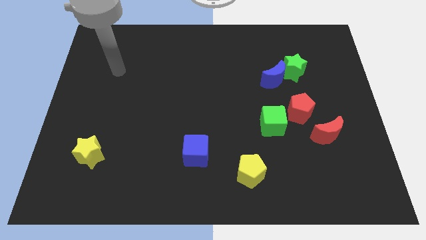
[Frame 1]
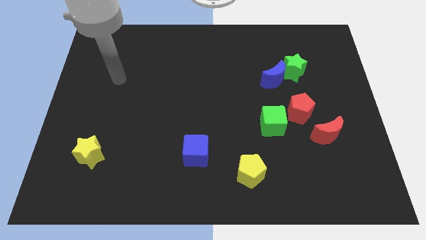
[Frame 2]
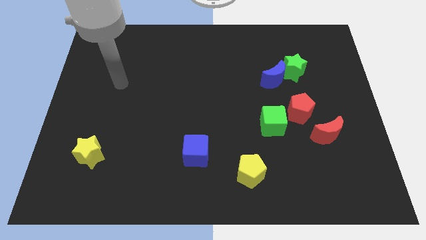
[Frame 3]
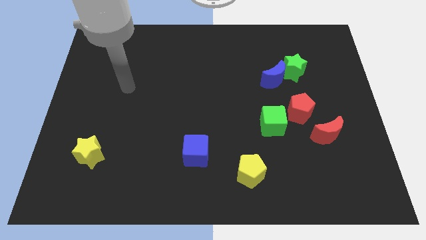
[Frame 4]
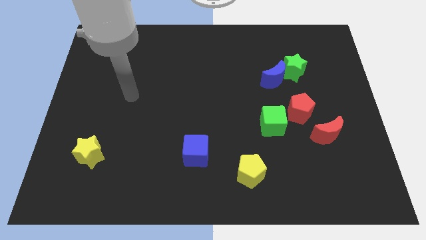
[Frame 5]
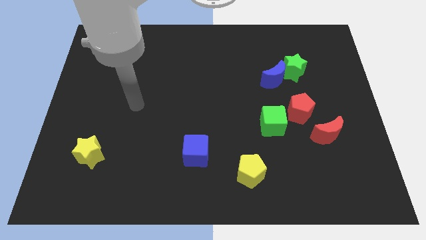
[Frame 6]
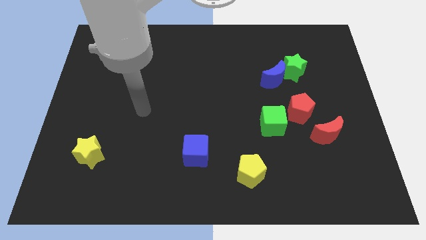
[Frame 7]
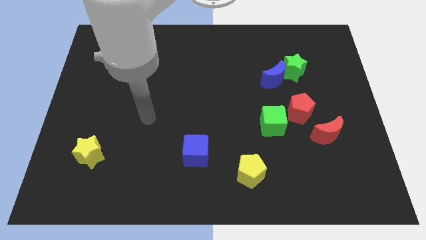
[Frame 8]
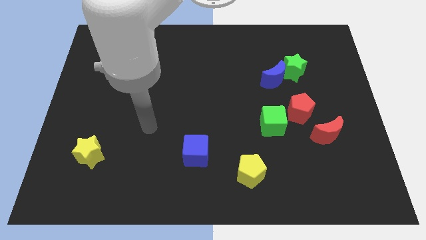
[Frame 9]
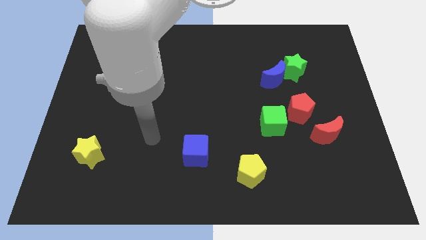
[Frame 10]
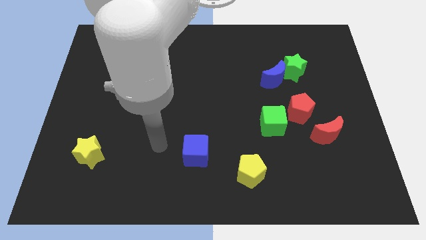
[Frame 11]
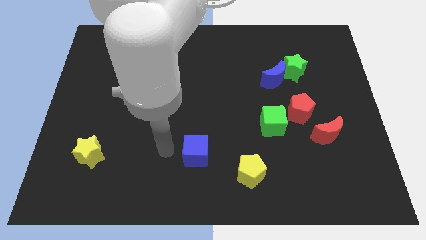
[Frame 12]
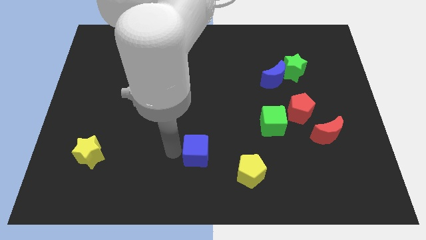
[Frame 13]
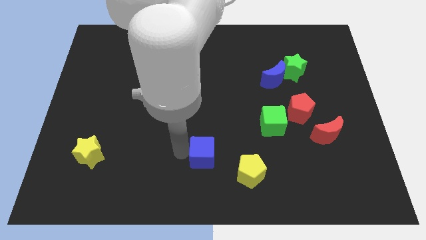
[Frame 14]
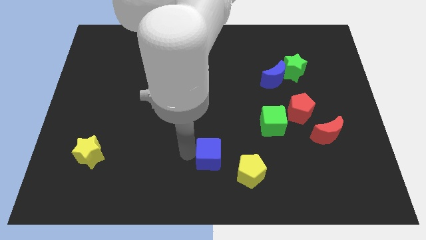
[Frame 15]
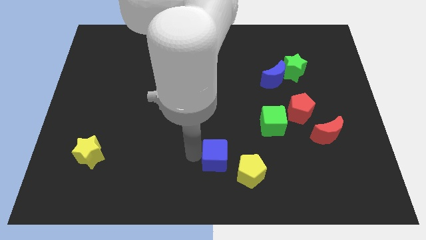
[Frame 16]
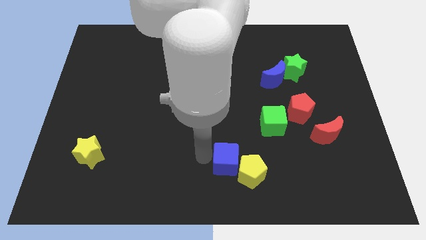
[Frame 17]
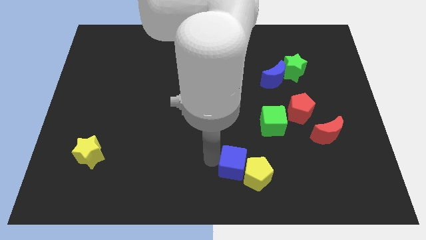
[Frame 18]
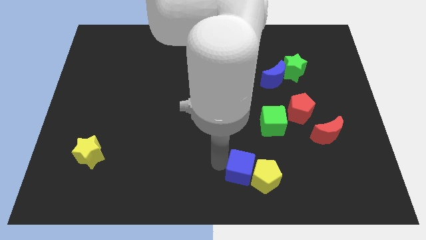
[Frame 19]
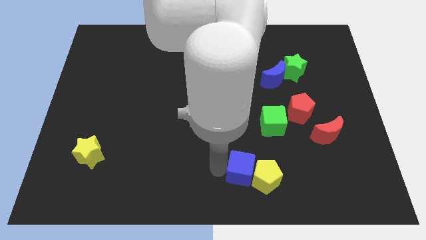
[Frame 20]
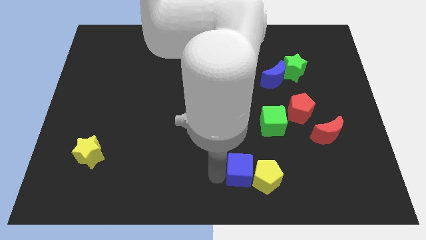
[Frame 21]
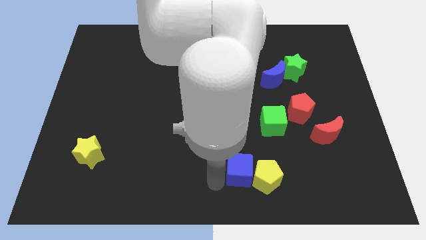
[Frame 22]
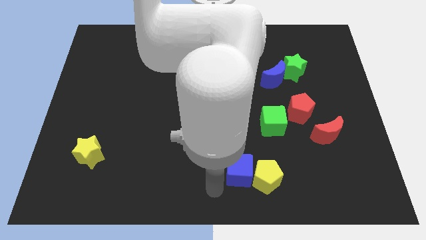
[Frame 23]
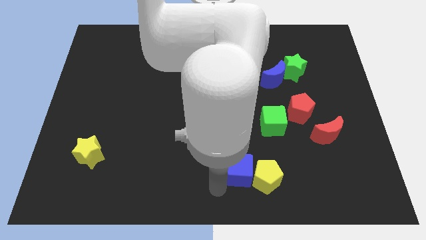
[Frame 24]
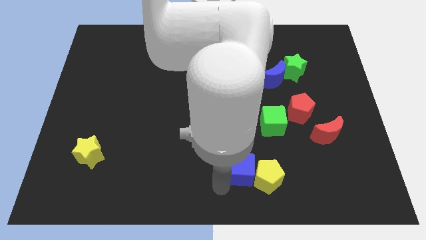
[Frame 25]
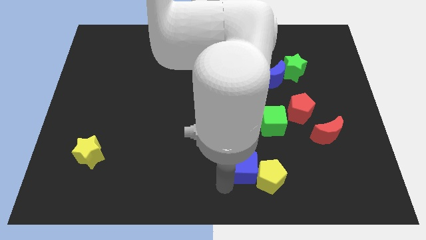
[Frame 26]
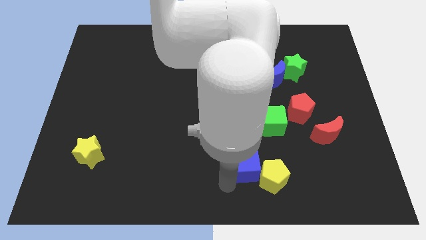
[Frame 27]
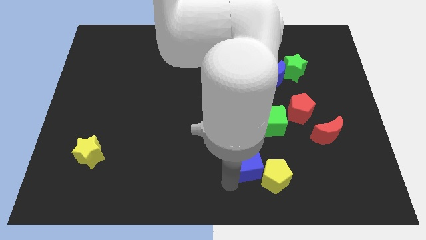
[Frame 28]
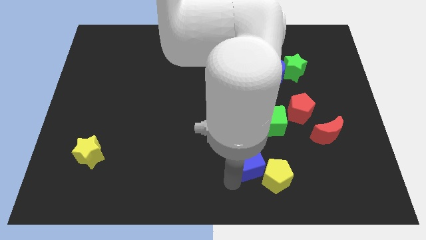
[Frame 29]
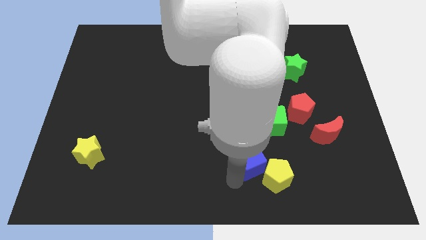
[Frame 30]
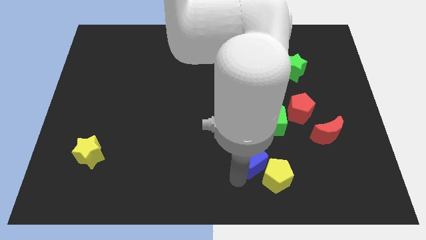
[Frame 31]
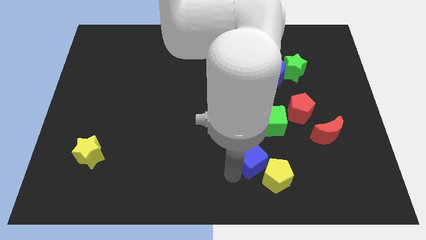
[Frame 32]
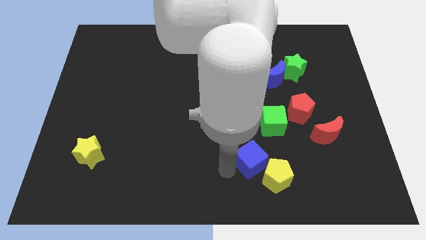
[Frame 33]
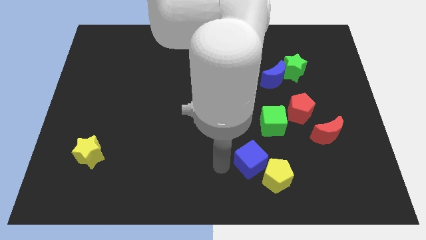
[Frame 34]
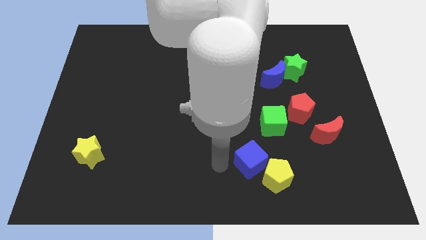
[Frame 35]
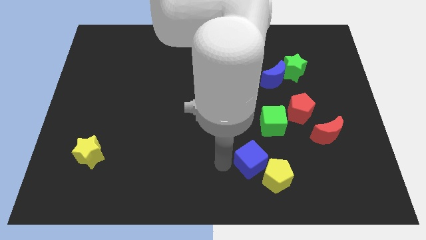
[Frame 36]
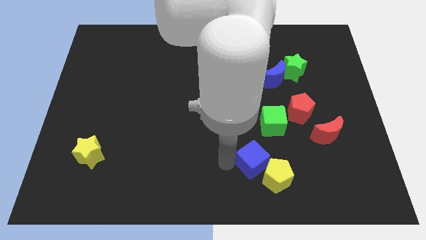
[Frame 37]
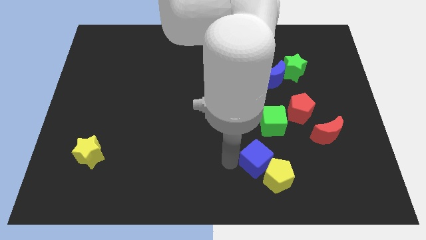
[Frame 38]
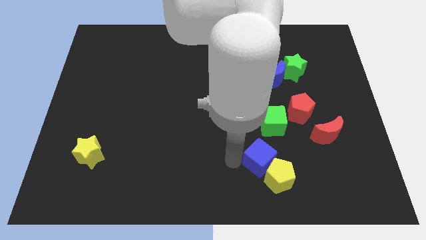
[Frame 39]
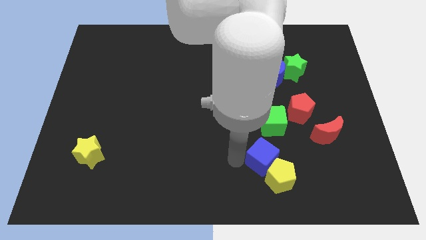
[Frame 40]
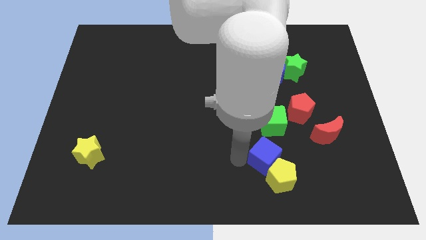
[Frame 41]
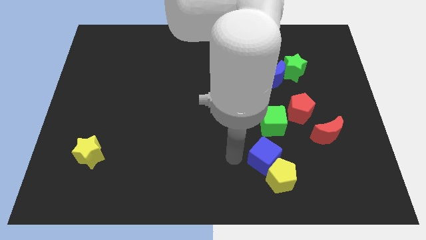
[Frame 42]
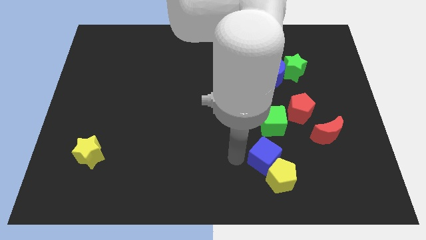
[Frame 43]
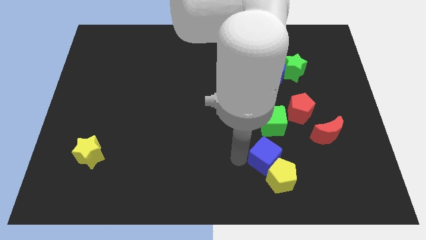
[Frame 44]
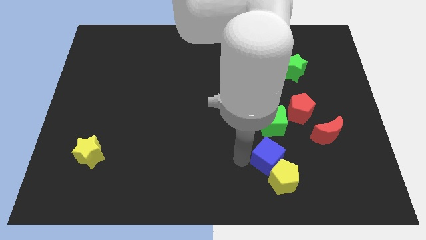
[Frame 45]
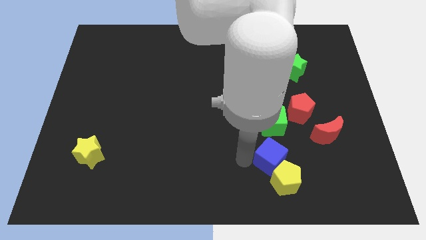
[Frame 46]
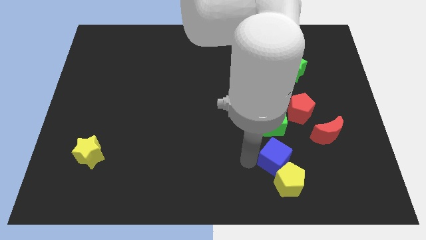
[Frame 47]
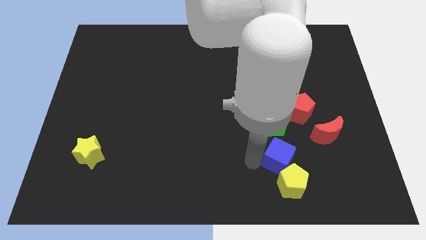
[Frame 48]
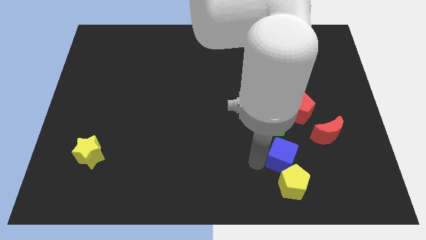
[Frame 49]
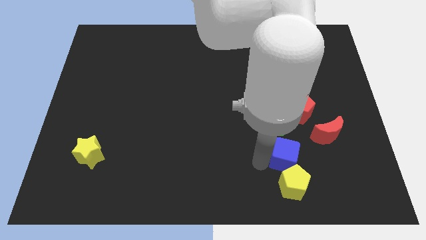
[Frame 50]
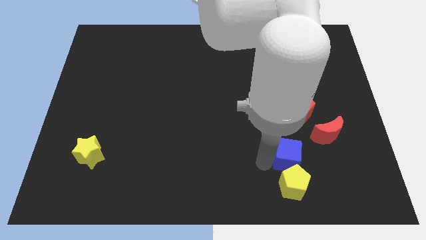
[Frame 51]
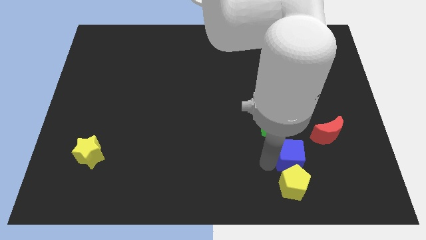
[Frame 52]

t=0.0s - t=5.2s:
move the blue cube right

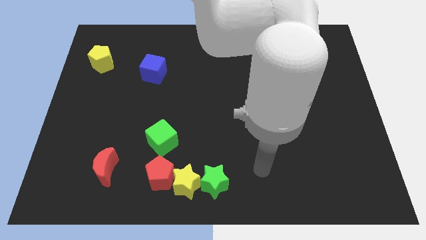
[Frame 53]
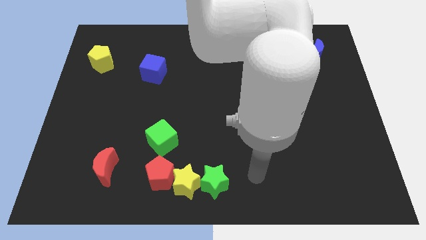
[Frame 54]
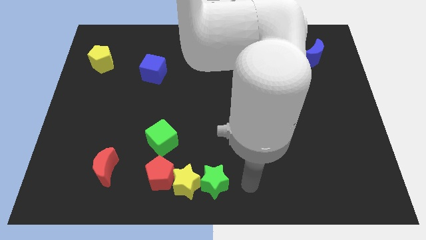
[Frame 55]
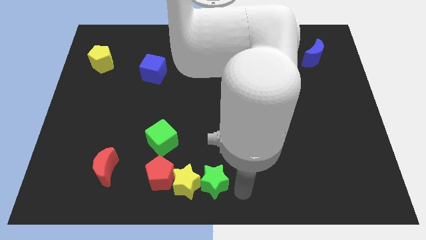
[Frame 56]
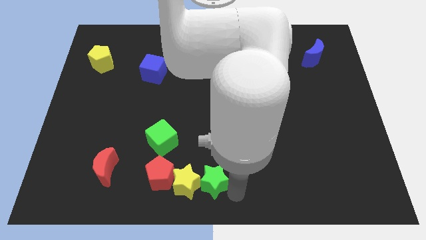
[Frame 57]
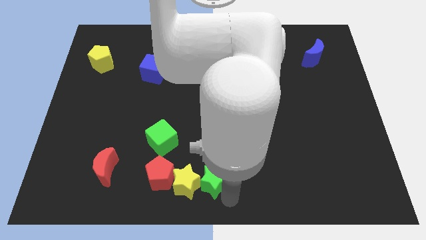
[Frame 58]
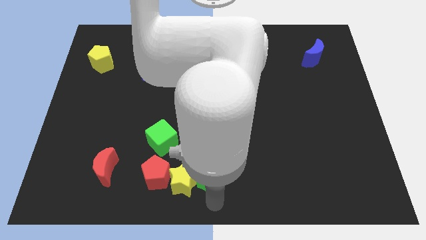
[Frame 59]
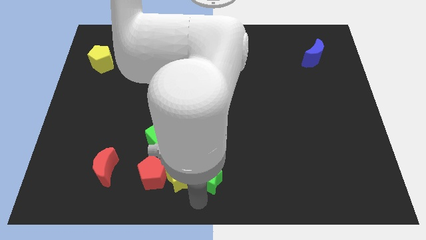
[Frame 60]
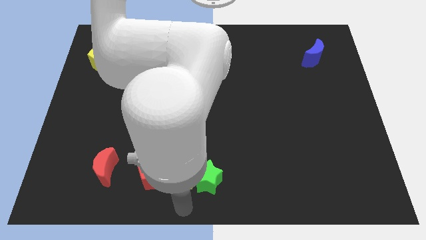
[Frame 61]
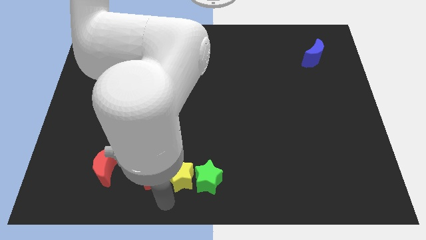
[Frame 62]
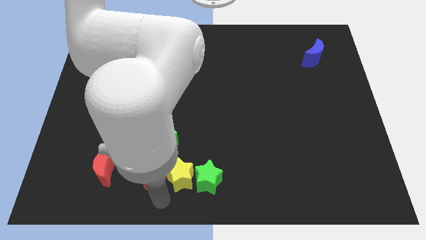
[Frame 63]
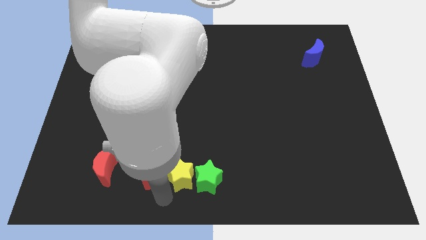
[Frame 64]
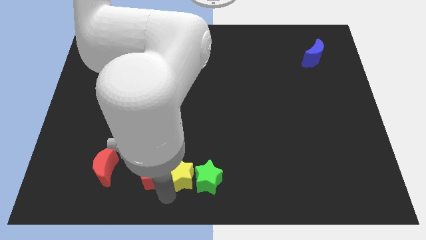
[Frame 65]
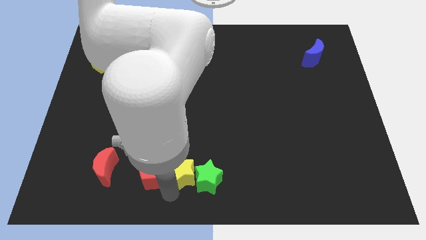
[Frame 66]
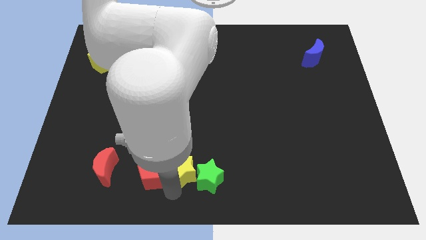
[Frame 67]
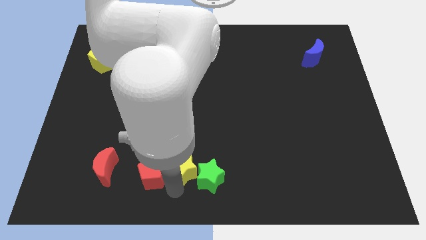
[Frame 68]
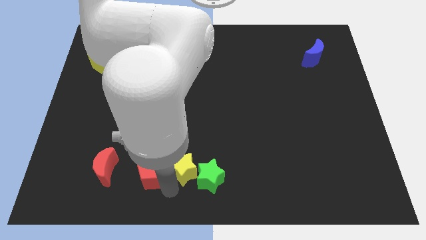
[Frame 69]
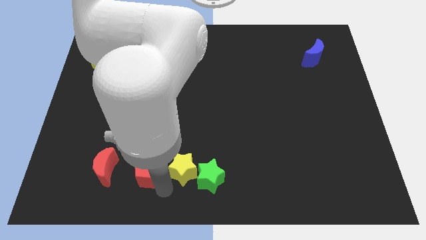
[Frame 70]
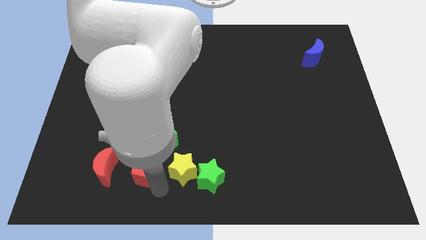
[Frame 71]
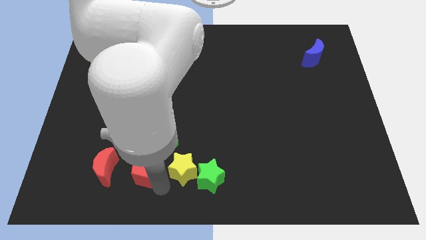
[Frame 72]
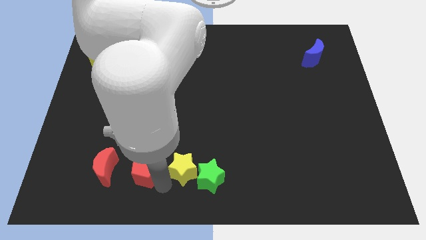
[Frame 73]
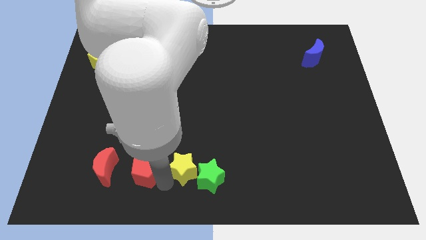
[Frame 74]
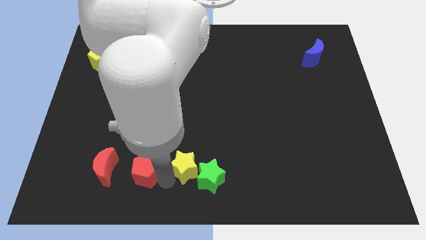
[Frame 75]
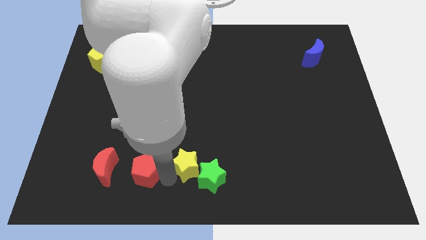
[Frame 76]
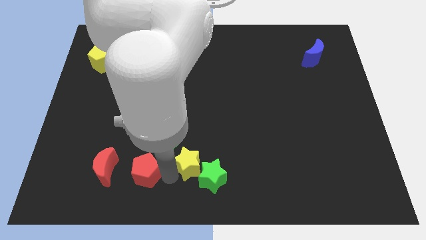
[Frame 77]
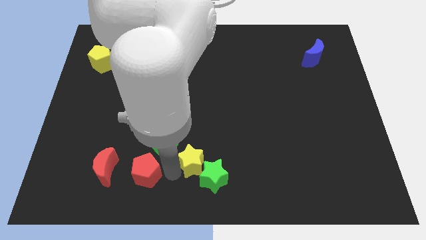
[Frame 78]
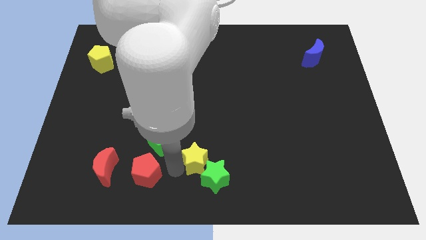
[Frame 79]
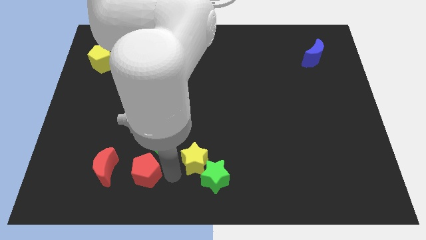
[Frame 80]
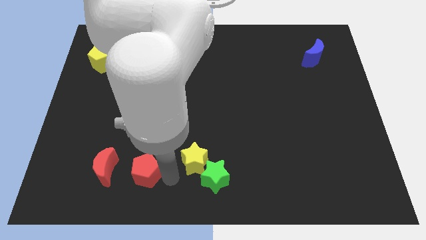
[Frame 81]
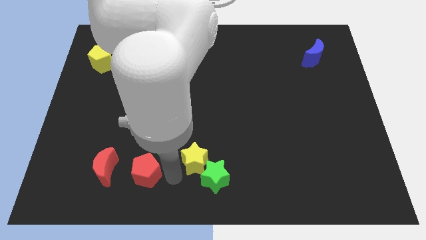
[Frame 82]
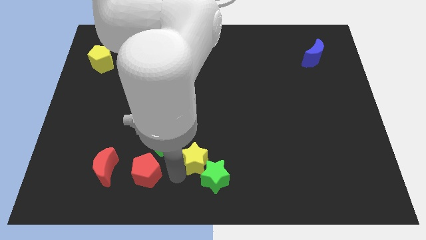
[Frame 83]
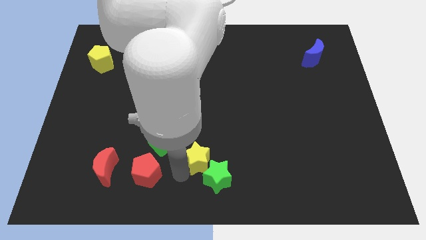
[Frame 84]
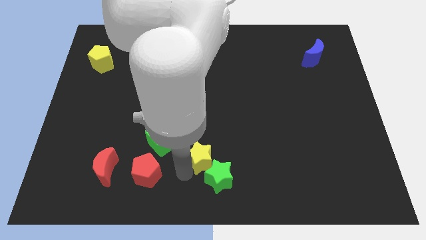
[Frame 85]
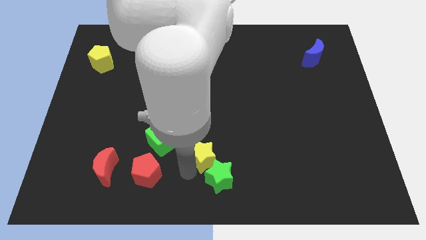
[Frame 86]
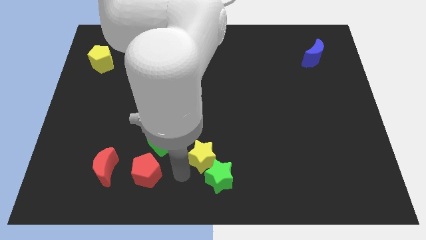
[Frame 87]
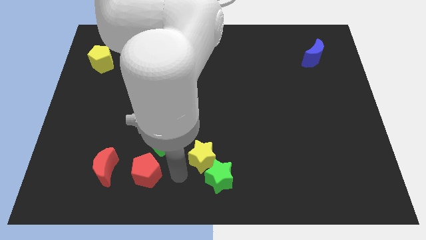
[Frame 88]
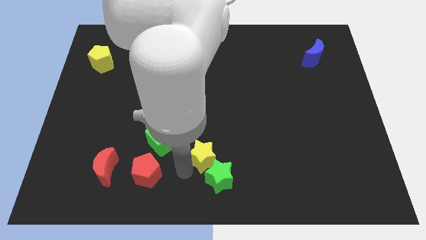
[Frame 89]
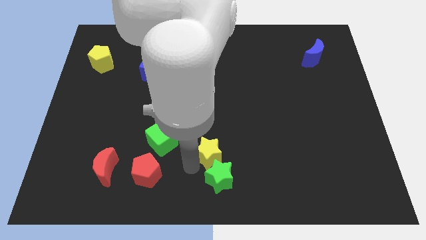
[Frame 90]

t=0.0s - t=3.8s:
slightly push the yellow star upwards and then to the right
